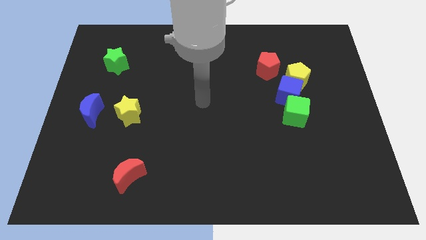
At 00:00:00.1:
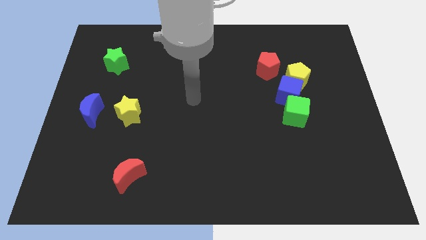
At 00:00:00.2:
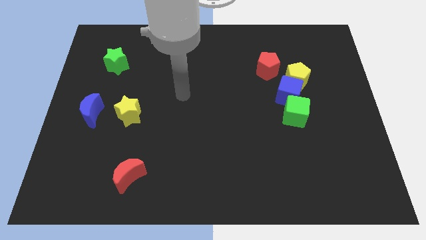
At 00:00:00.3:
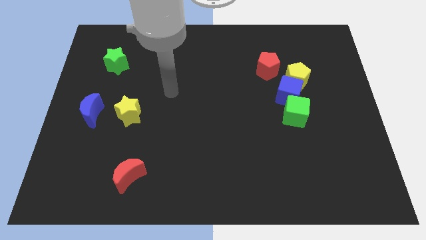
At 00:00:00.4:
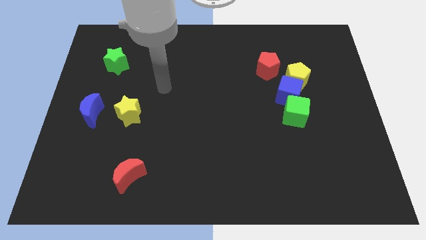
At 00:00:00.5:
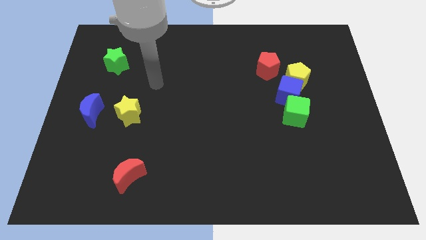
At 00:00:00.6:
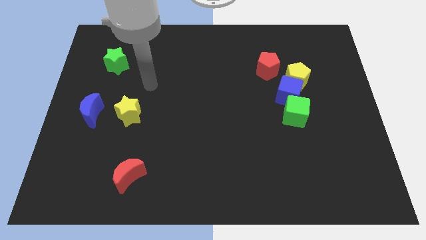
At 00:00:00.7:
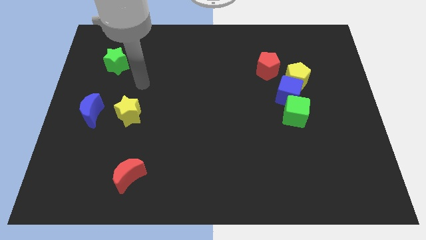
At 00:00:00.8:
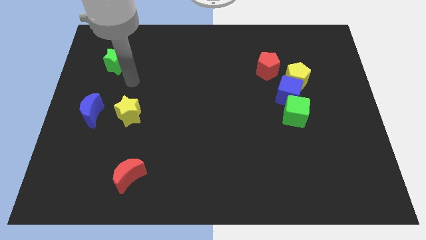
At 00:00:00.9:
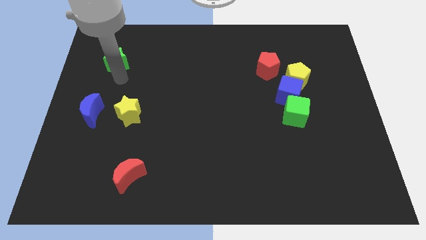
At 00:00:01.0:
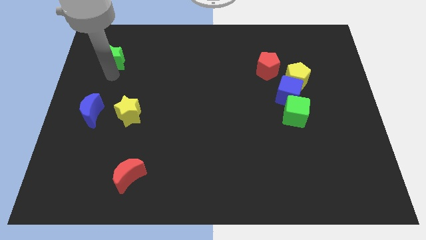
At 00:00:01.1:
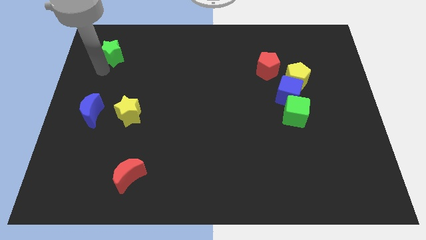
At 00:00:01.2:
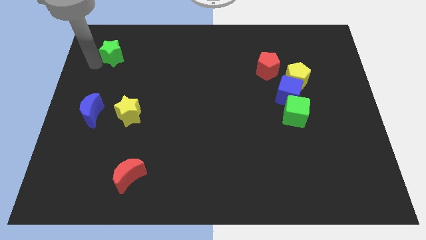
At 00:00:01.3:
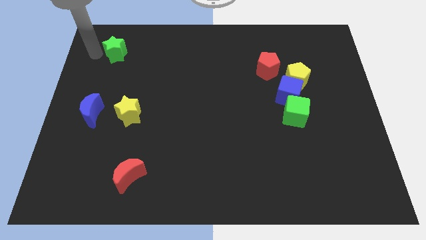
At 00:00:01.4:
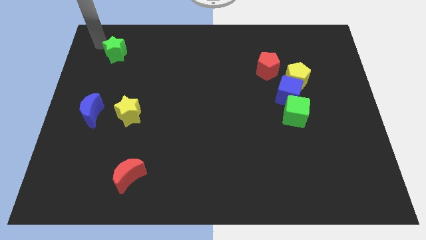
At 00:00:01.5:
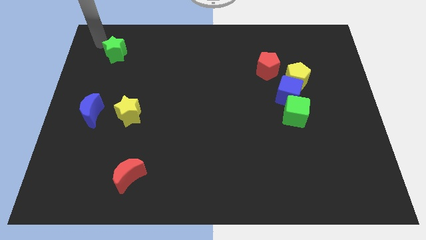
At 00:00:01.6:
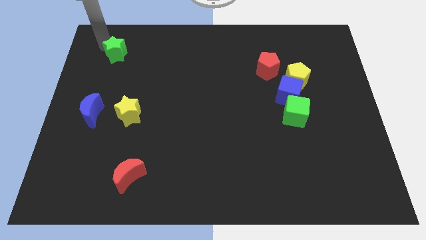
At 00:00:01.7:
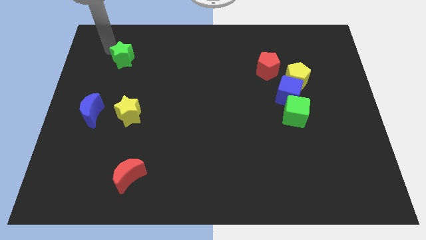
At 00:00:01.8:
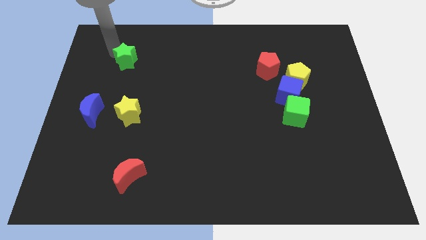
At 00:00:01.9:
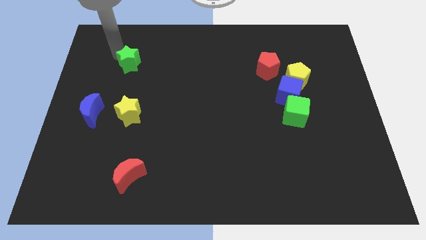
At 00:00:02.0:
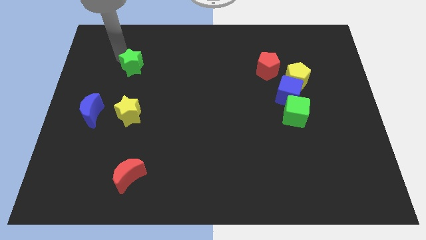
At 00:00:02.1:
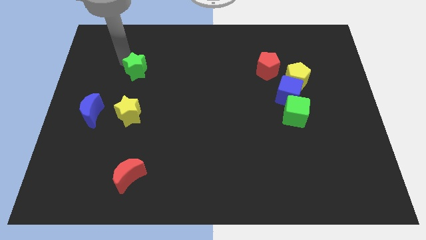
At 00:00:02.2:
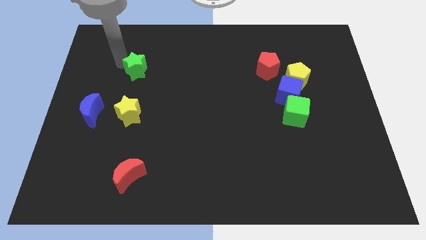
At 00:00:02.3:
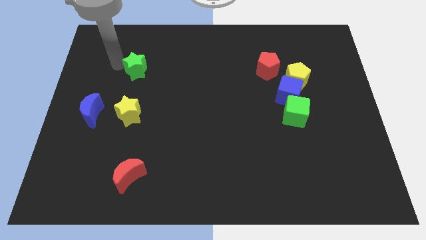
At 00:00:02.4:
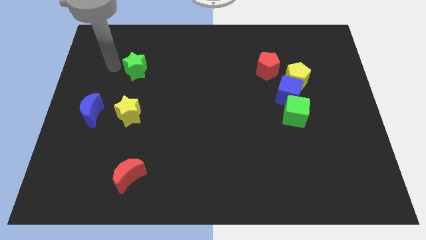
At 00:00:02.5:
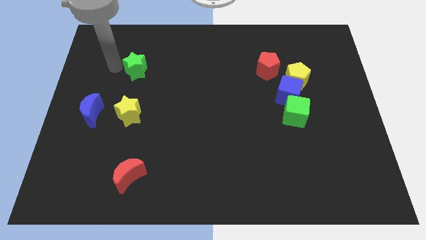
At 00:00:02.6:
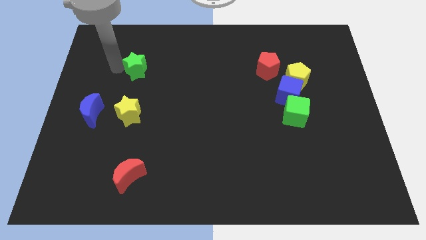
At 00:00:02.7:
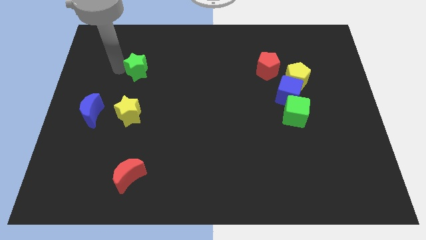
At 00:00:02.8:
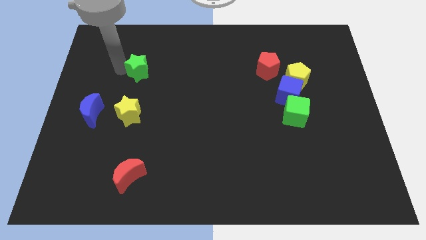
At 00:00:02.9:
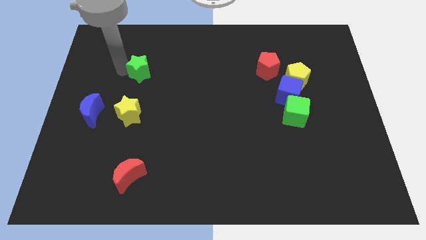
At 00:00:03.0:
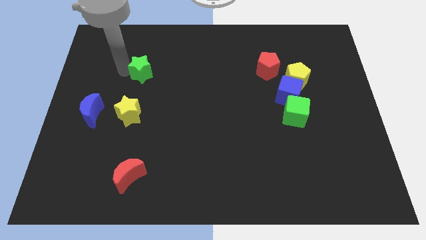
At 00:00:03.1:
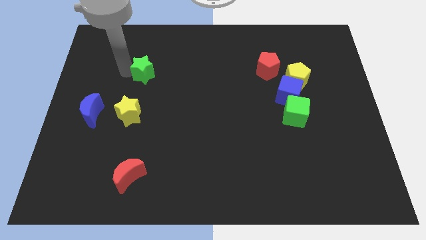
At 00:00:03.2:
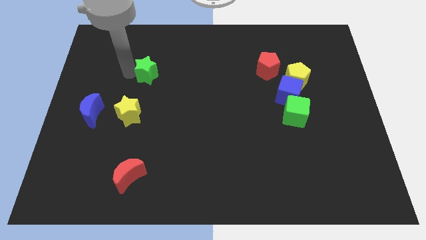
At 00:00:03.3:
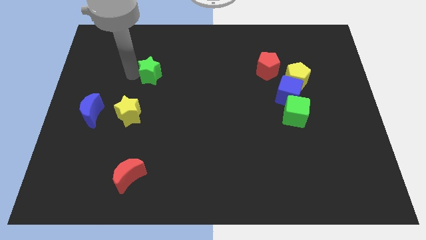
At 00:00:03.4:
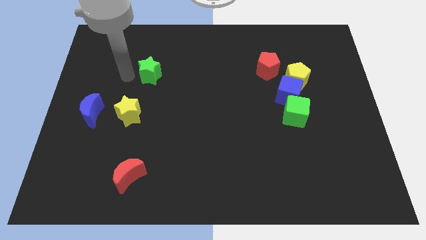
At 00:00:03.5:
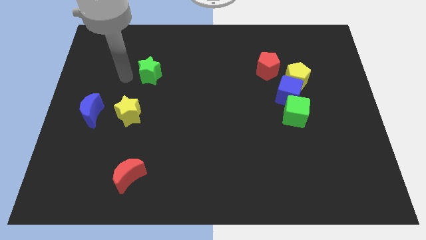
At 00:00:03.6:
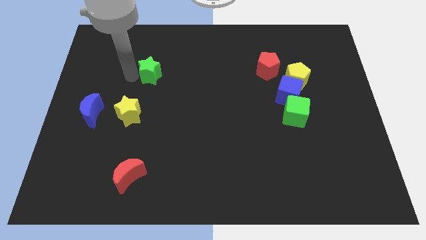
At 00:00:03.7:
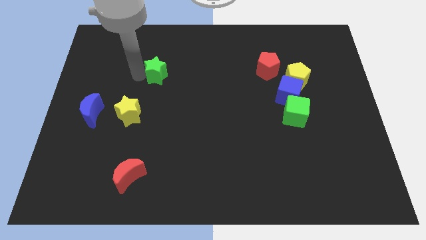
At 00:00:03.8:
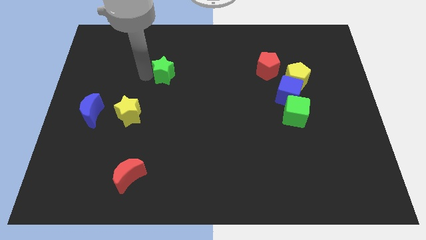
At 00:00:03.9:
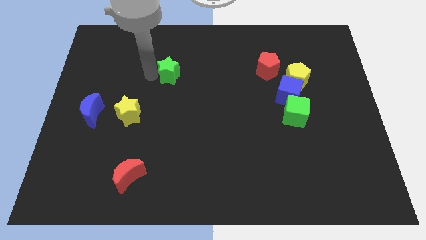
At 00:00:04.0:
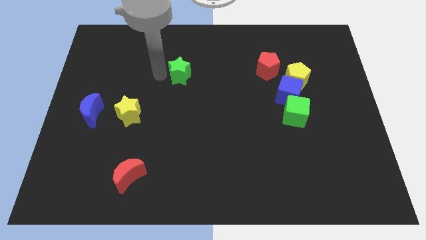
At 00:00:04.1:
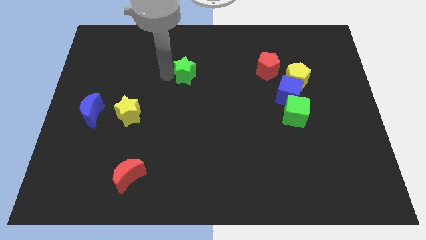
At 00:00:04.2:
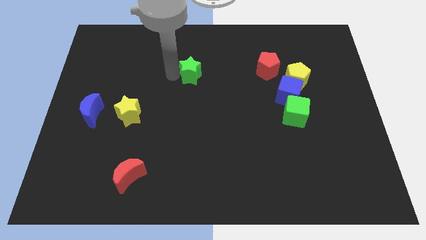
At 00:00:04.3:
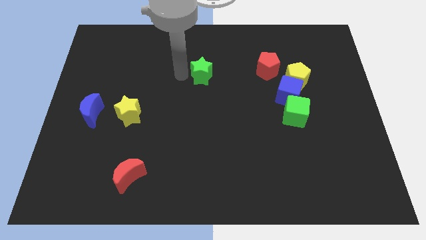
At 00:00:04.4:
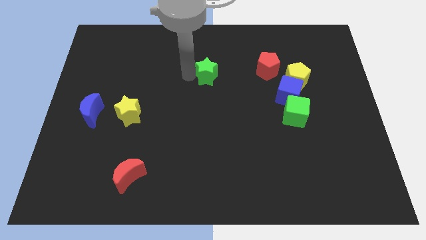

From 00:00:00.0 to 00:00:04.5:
put the green star just left of the red pentagon

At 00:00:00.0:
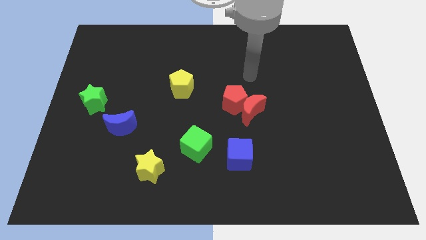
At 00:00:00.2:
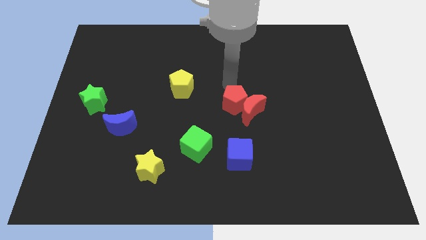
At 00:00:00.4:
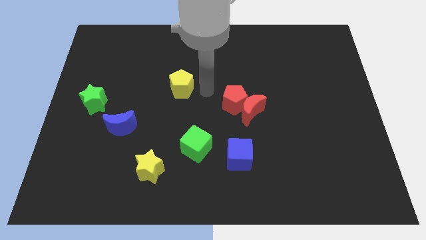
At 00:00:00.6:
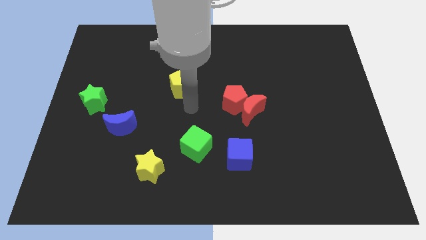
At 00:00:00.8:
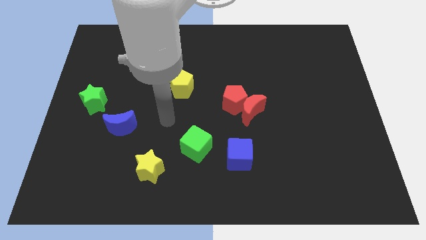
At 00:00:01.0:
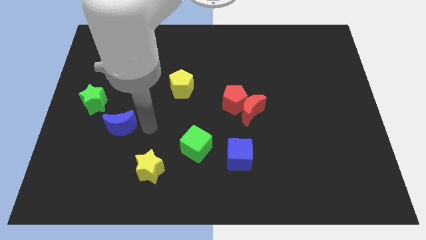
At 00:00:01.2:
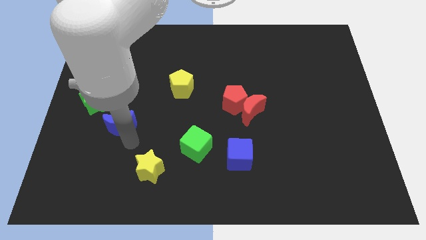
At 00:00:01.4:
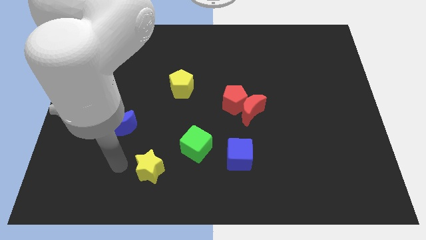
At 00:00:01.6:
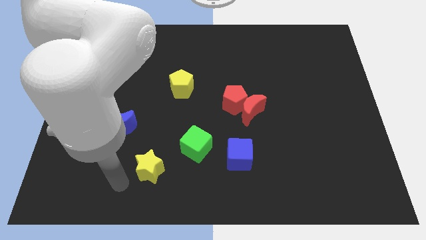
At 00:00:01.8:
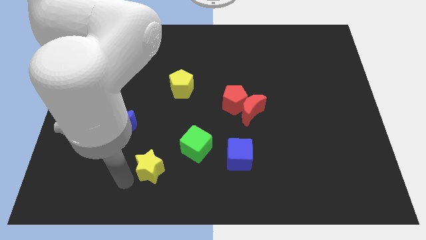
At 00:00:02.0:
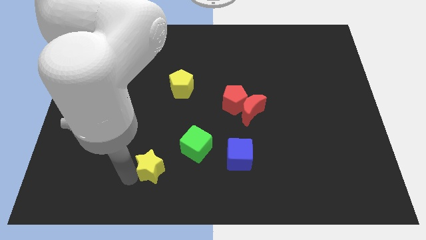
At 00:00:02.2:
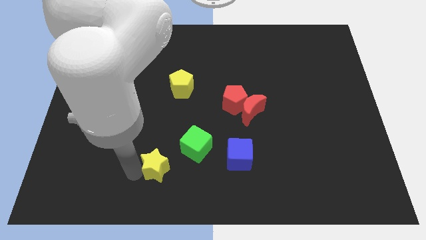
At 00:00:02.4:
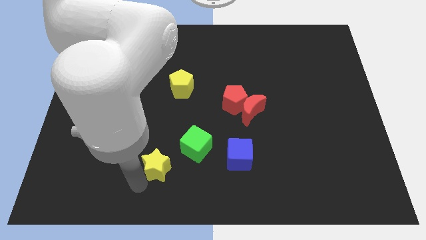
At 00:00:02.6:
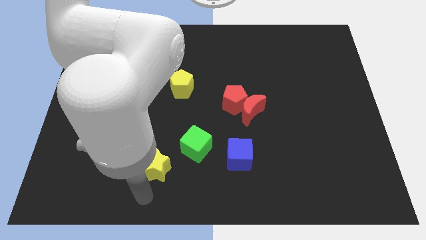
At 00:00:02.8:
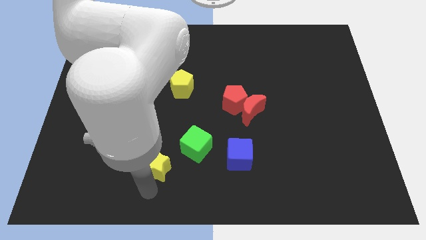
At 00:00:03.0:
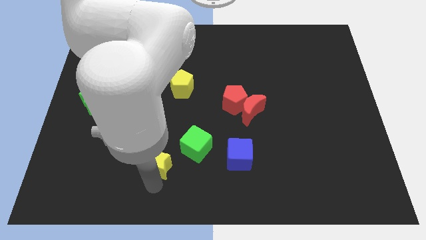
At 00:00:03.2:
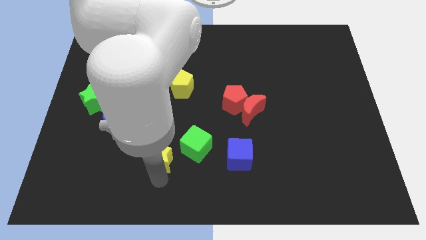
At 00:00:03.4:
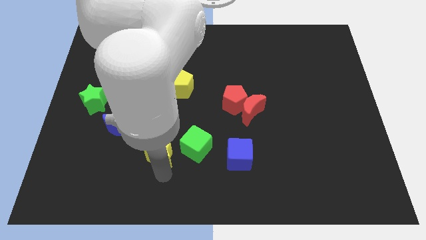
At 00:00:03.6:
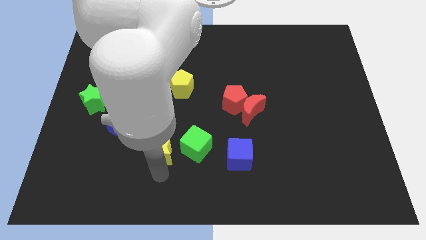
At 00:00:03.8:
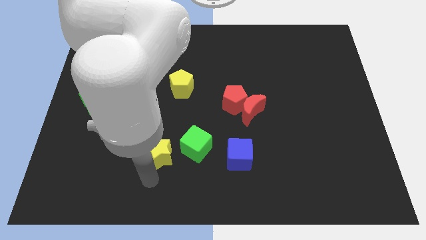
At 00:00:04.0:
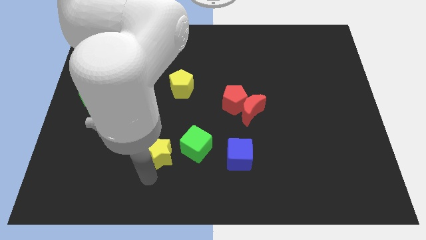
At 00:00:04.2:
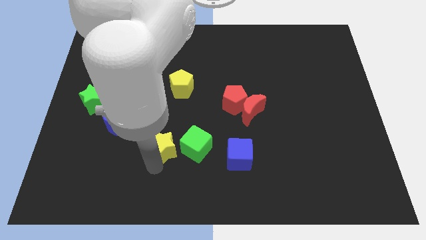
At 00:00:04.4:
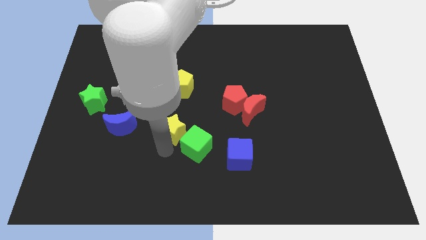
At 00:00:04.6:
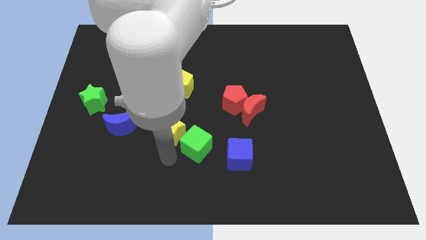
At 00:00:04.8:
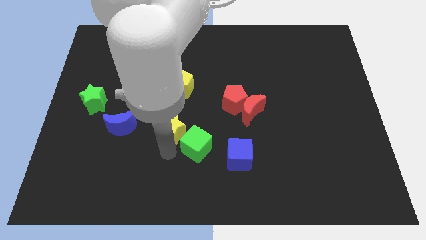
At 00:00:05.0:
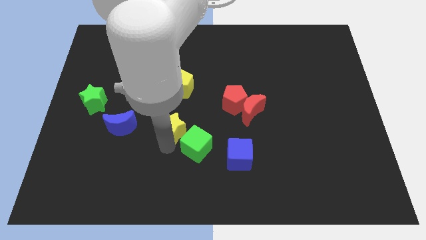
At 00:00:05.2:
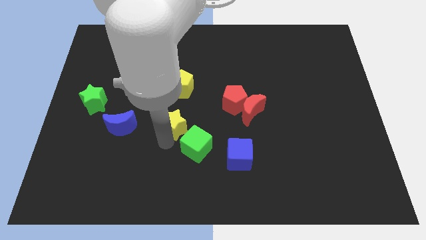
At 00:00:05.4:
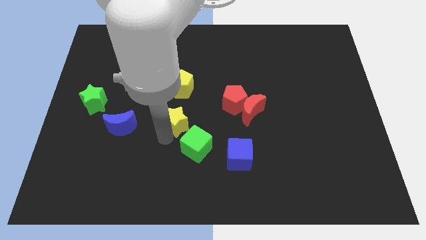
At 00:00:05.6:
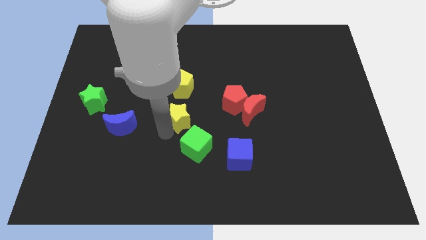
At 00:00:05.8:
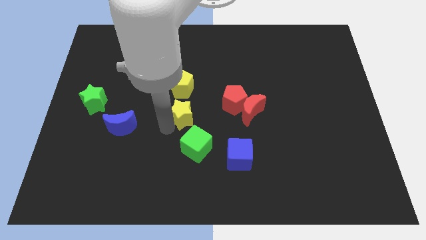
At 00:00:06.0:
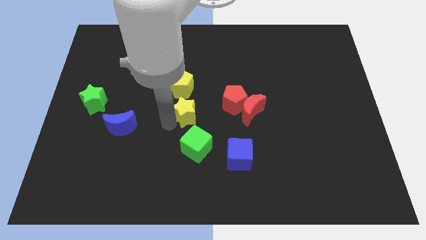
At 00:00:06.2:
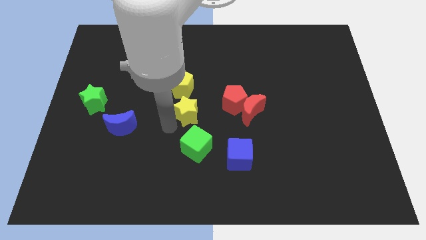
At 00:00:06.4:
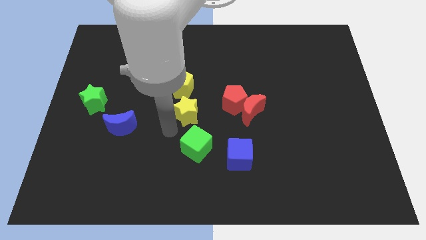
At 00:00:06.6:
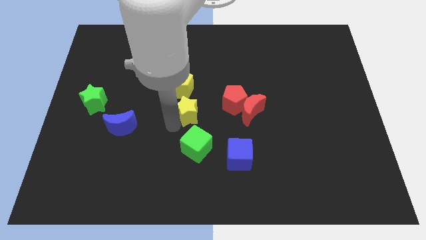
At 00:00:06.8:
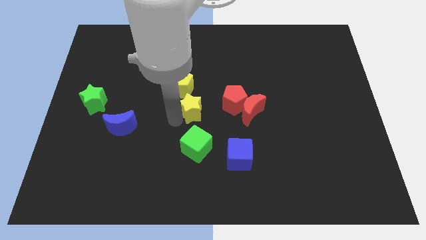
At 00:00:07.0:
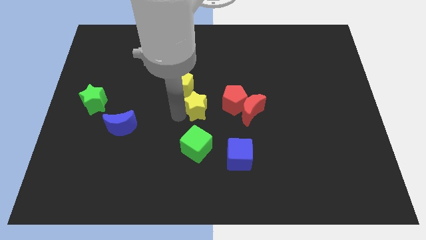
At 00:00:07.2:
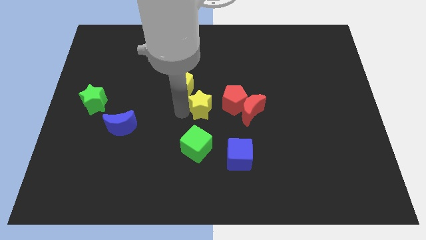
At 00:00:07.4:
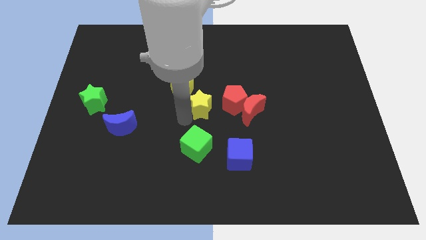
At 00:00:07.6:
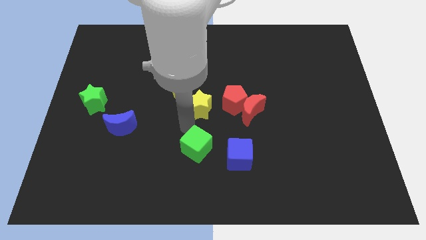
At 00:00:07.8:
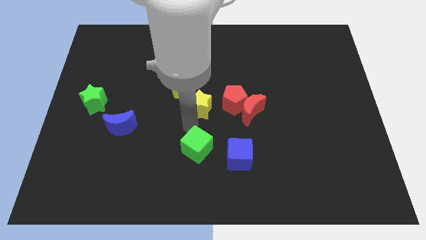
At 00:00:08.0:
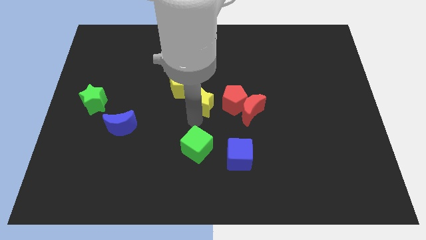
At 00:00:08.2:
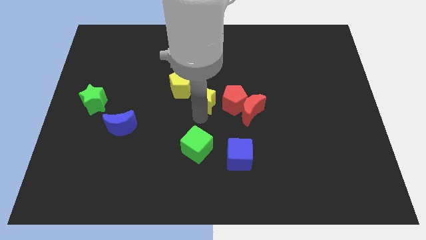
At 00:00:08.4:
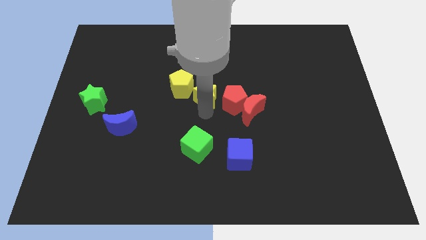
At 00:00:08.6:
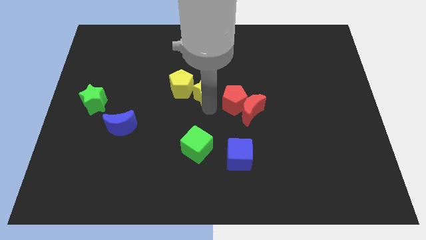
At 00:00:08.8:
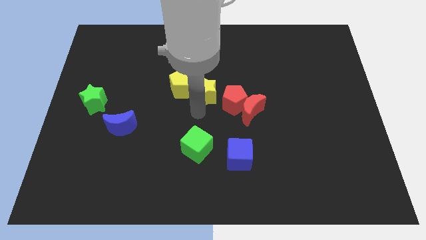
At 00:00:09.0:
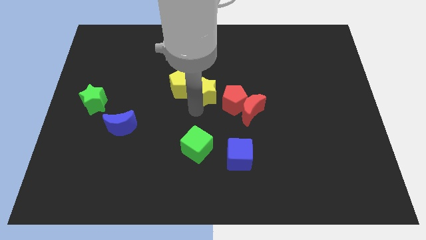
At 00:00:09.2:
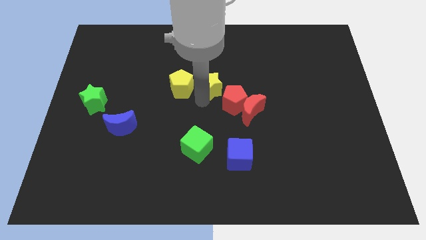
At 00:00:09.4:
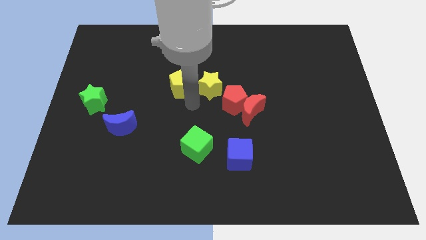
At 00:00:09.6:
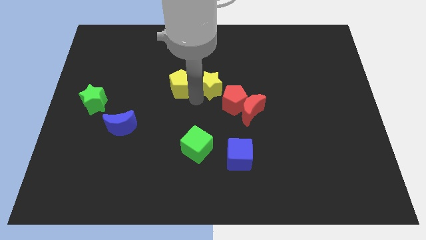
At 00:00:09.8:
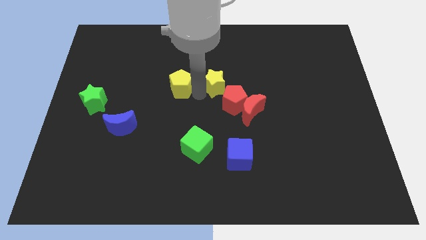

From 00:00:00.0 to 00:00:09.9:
move the yellow star above the red pentagon
